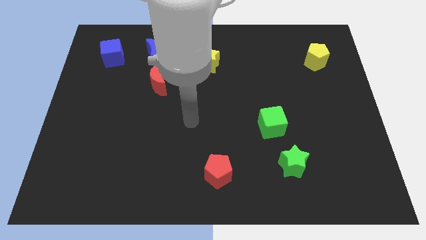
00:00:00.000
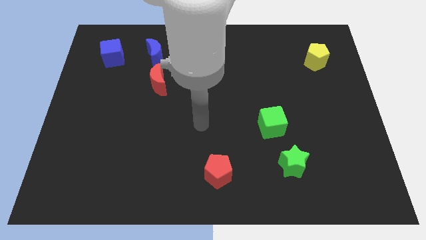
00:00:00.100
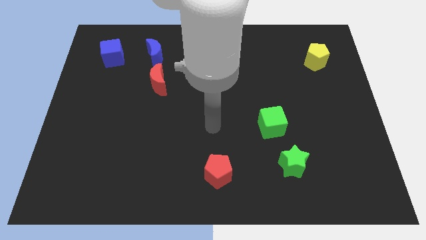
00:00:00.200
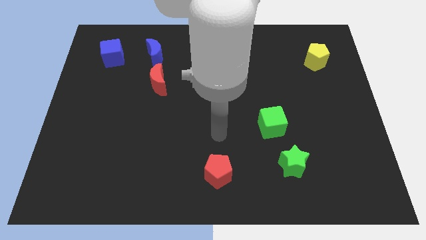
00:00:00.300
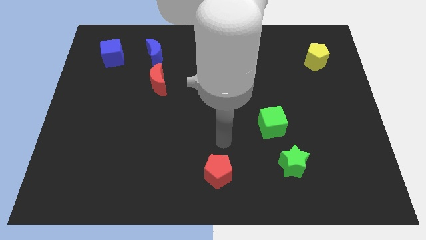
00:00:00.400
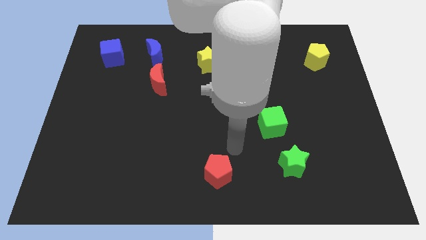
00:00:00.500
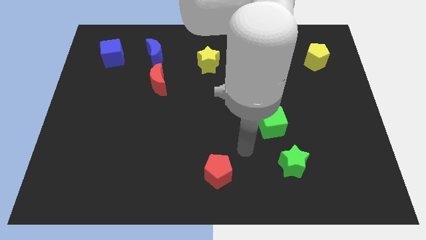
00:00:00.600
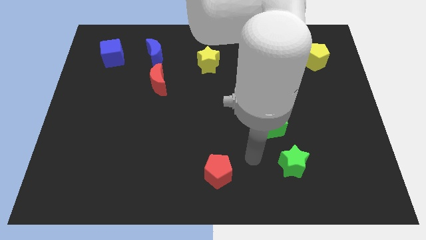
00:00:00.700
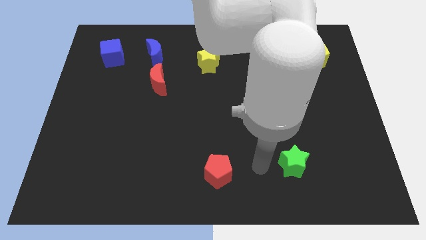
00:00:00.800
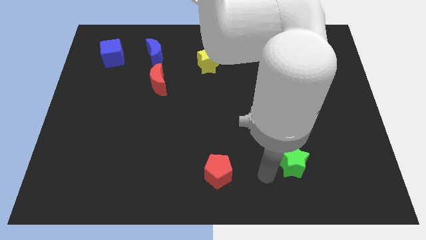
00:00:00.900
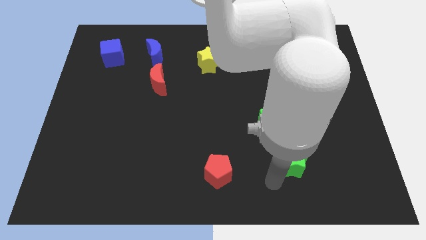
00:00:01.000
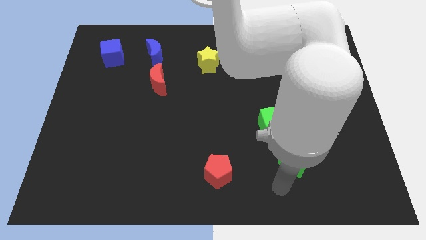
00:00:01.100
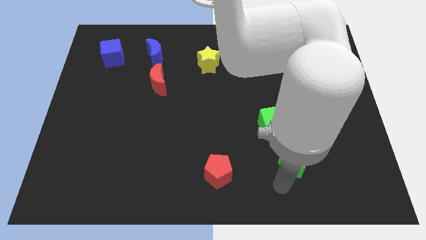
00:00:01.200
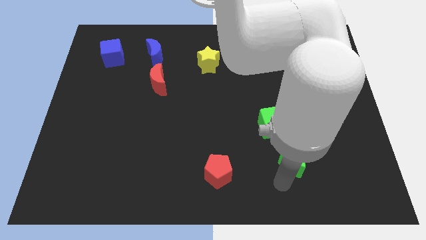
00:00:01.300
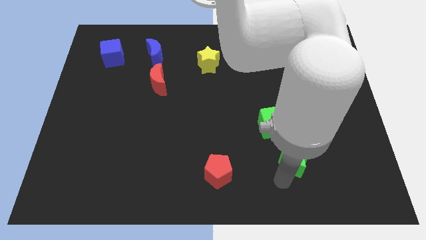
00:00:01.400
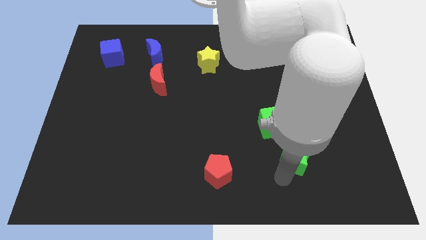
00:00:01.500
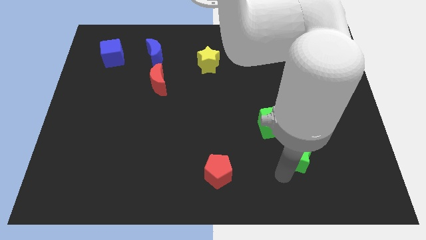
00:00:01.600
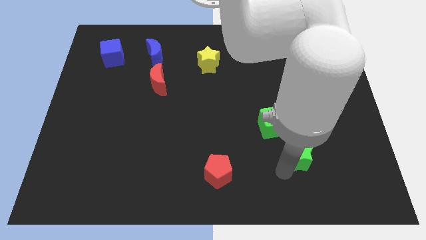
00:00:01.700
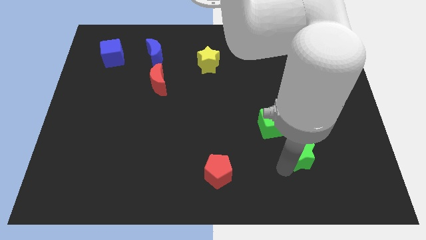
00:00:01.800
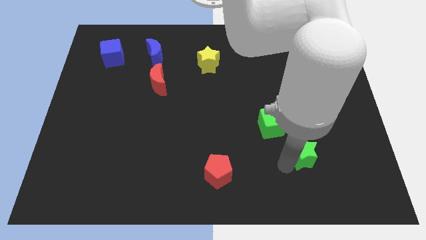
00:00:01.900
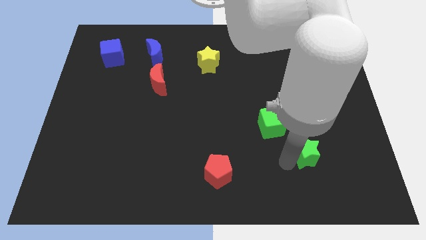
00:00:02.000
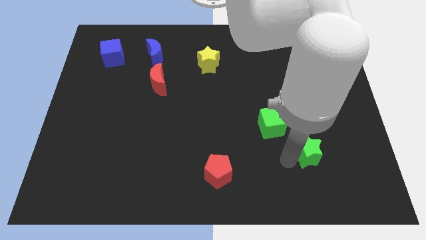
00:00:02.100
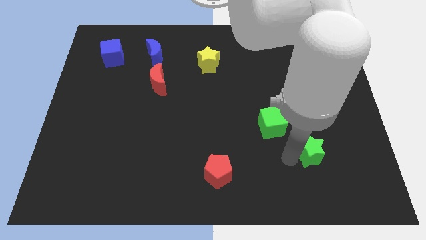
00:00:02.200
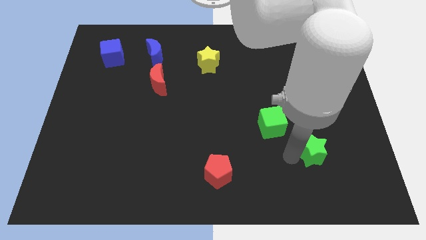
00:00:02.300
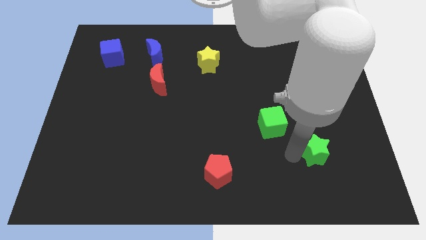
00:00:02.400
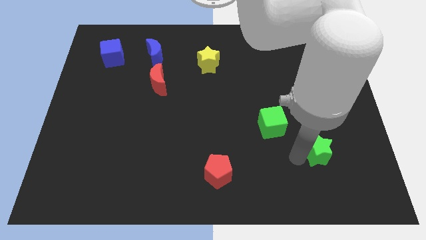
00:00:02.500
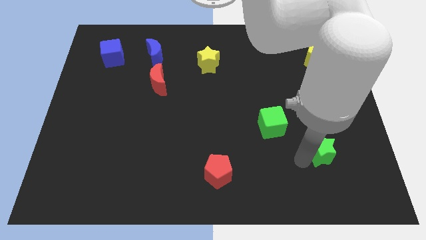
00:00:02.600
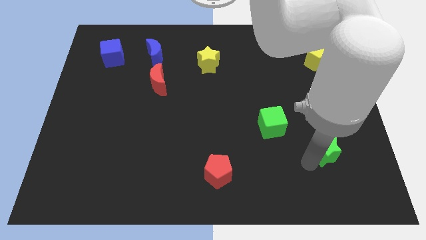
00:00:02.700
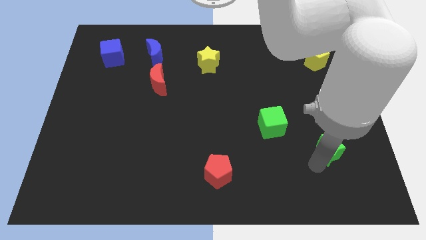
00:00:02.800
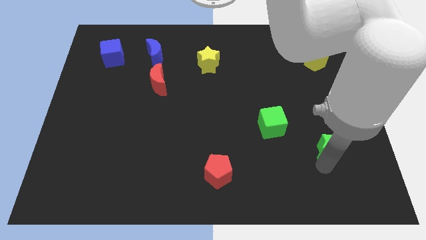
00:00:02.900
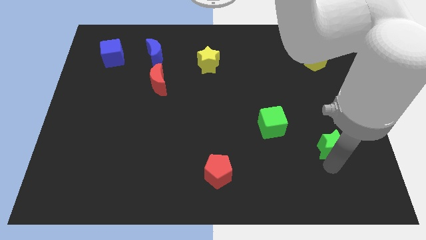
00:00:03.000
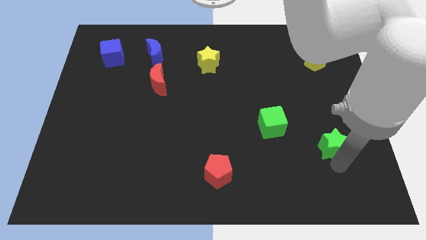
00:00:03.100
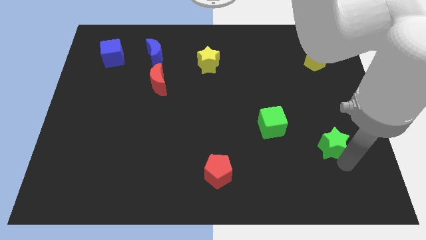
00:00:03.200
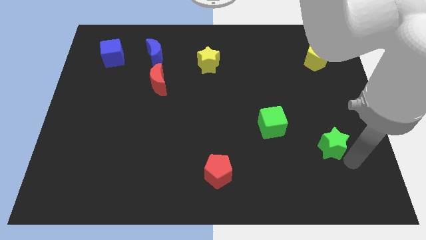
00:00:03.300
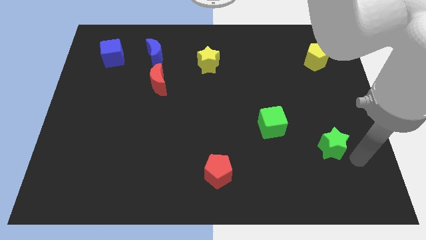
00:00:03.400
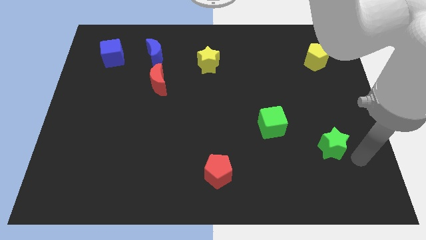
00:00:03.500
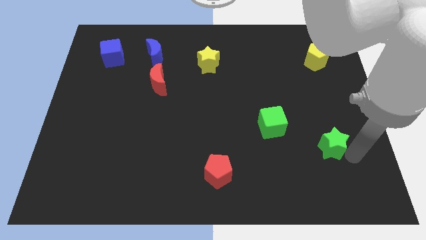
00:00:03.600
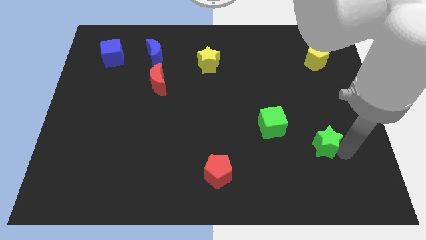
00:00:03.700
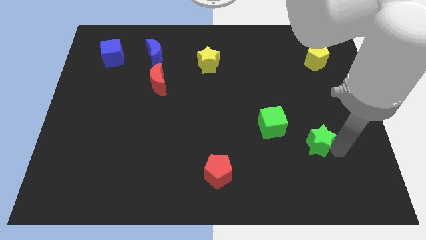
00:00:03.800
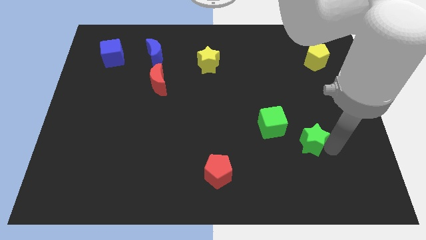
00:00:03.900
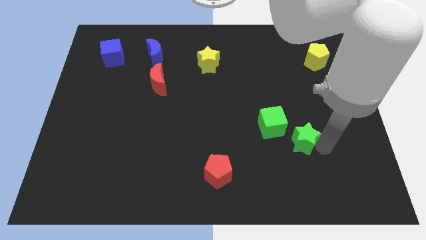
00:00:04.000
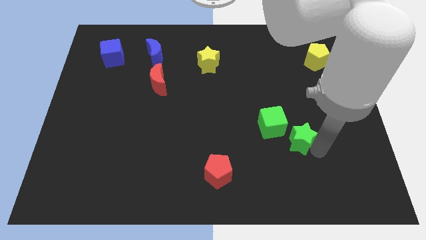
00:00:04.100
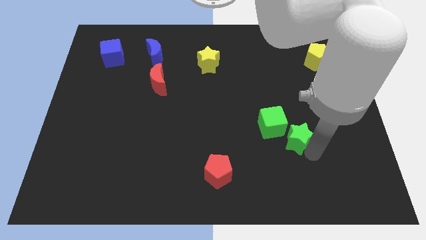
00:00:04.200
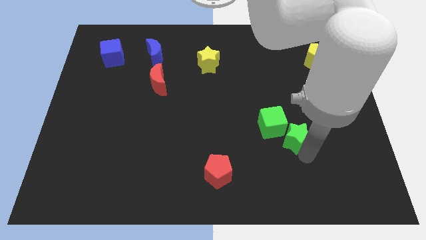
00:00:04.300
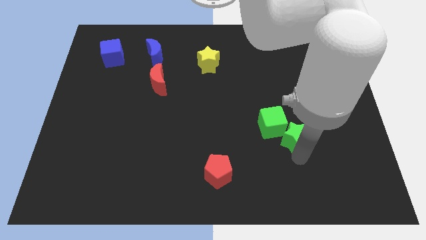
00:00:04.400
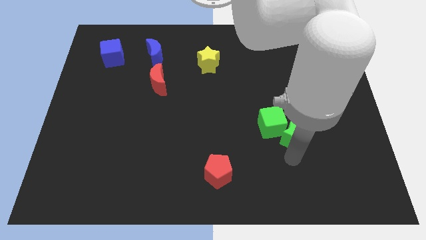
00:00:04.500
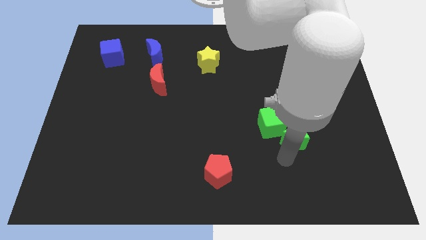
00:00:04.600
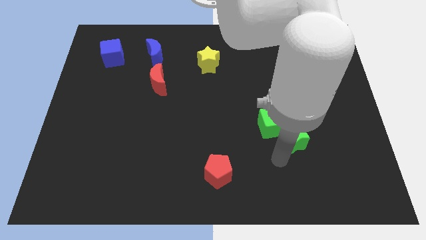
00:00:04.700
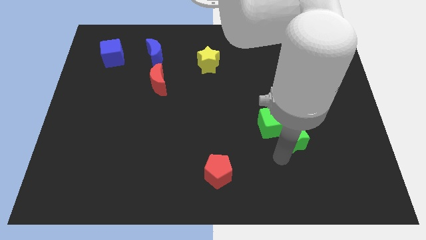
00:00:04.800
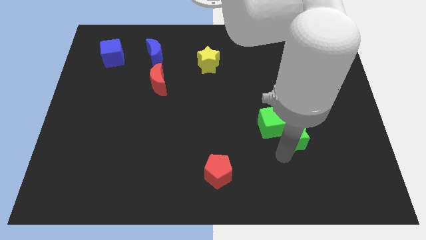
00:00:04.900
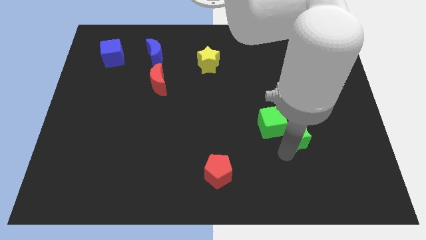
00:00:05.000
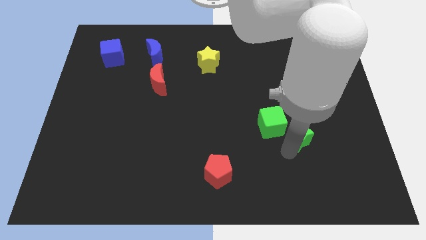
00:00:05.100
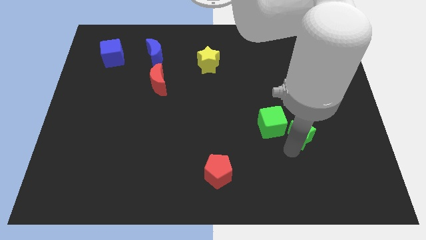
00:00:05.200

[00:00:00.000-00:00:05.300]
slide the green star up a little

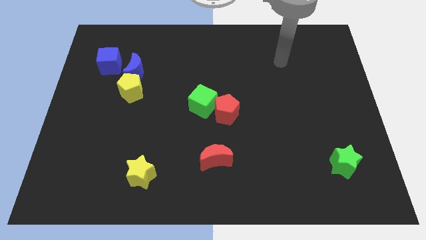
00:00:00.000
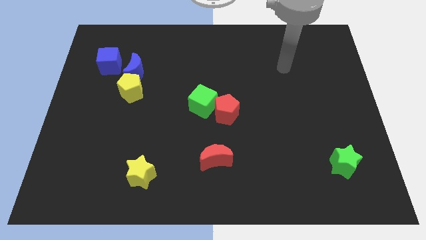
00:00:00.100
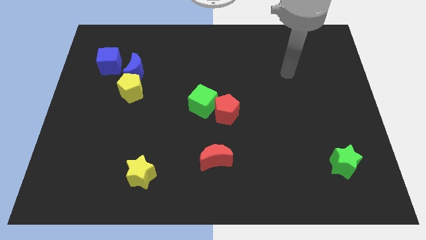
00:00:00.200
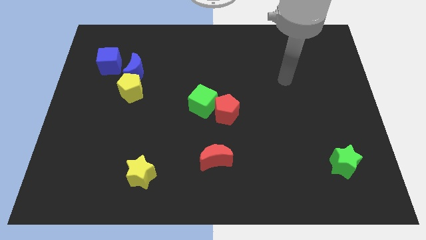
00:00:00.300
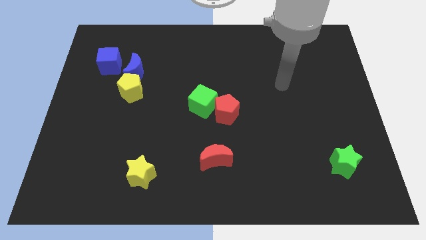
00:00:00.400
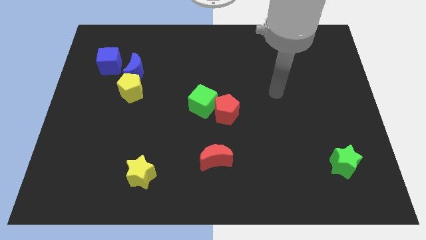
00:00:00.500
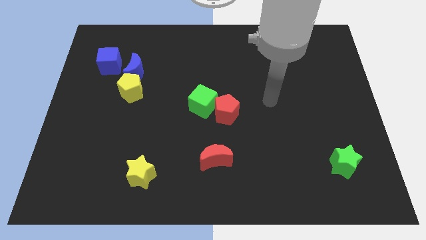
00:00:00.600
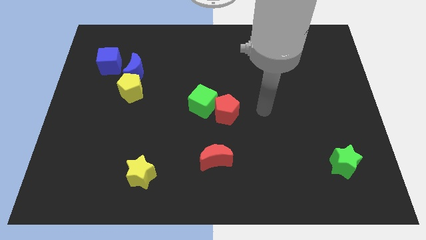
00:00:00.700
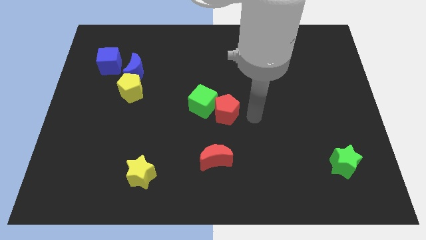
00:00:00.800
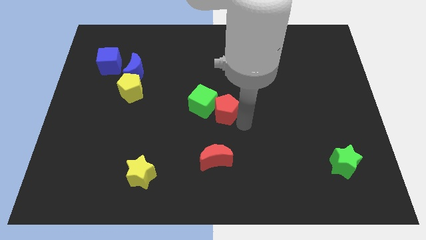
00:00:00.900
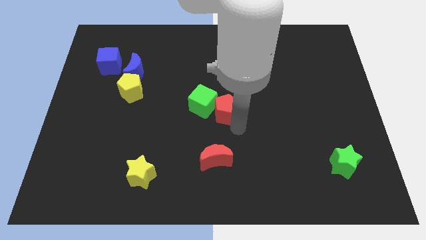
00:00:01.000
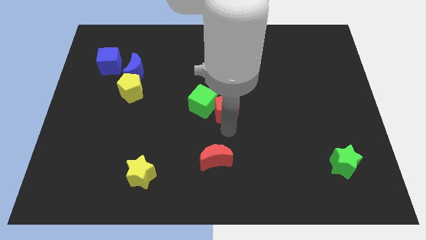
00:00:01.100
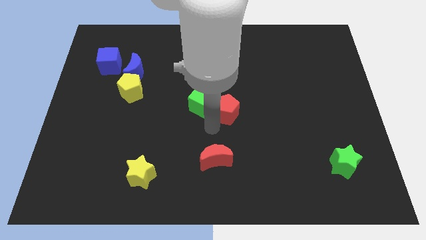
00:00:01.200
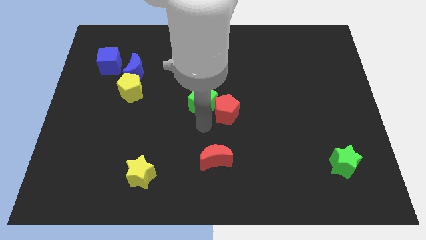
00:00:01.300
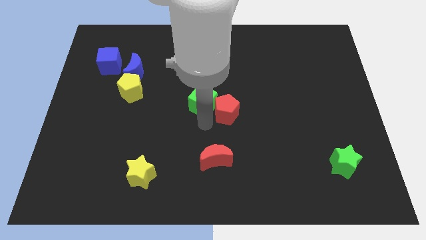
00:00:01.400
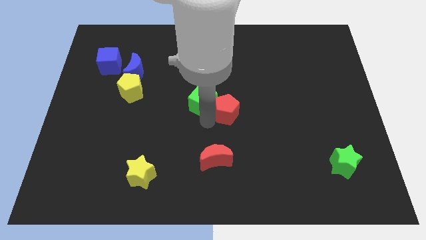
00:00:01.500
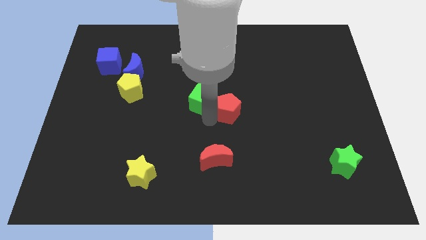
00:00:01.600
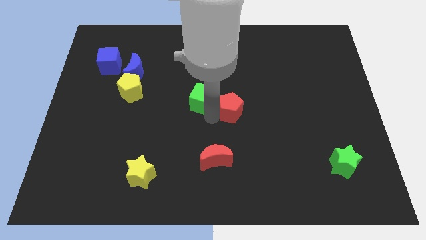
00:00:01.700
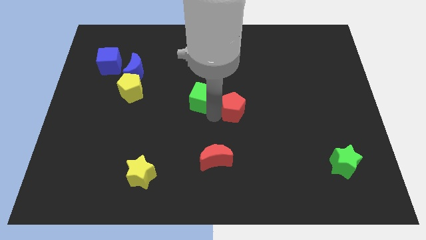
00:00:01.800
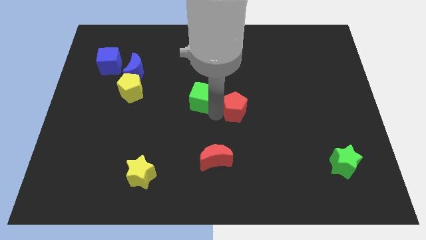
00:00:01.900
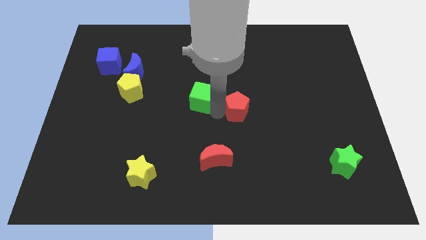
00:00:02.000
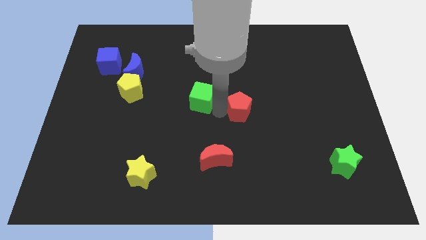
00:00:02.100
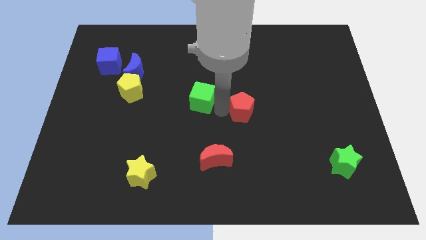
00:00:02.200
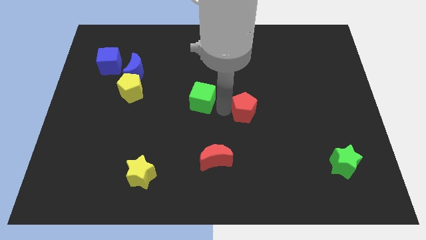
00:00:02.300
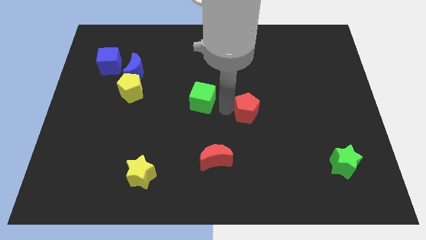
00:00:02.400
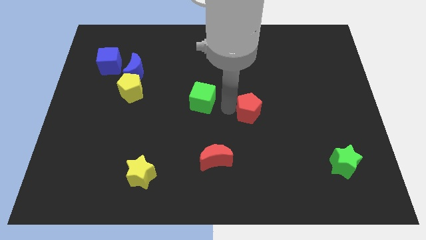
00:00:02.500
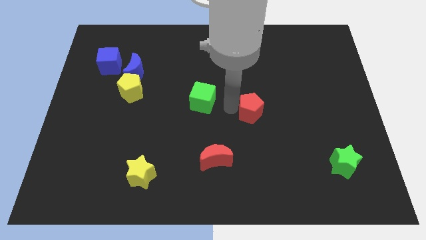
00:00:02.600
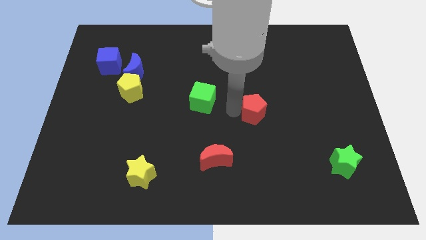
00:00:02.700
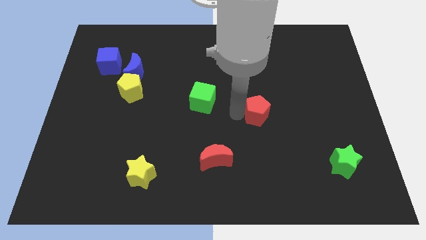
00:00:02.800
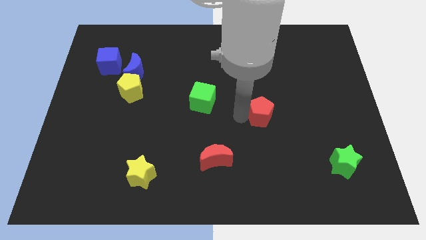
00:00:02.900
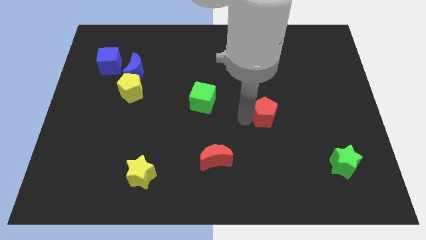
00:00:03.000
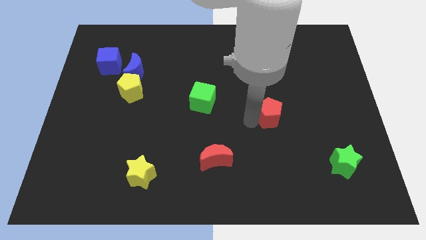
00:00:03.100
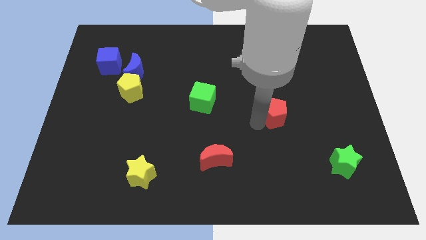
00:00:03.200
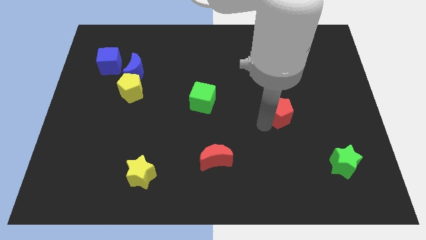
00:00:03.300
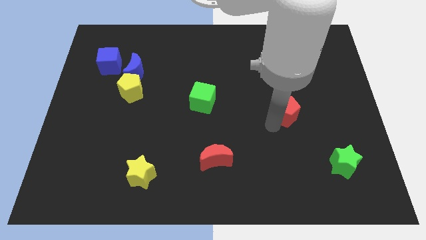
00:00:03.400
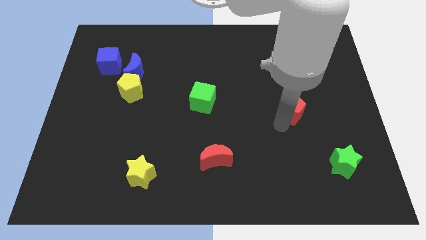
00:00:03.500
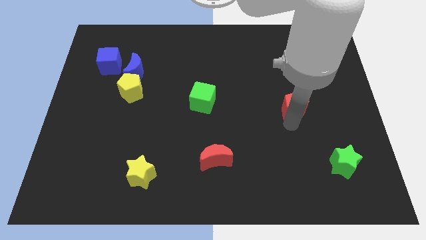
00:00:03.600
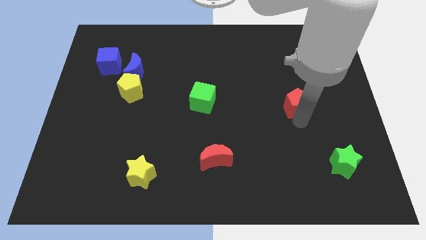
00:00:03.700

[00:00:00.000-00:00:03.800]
move the red pentagon up and then right somewhat
